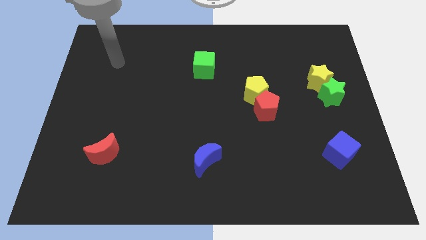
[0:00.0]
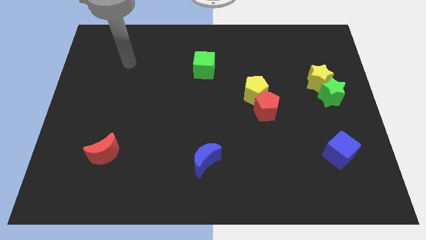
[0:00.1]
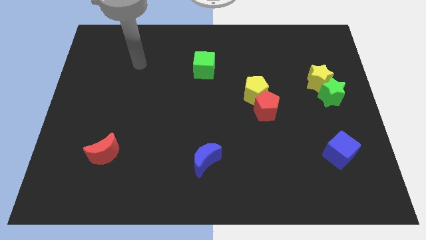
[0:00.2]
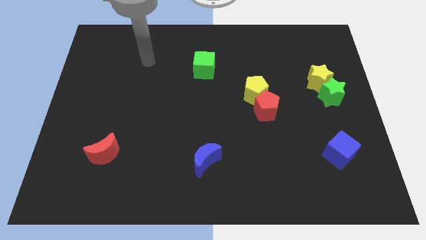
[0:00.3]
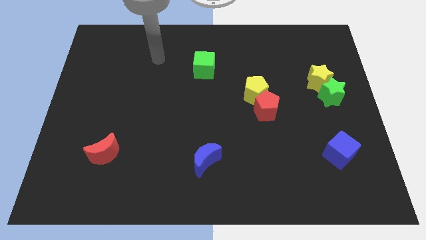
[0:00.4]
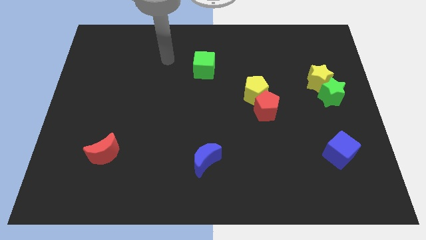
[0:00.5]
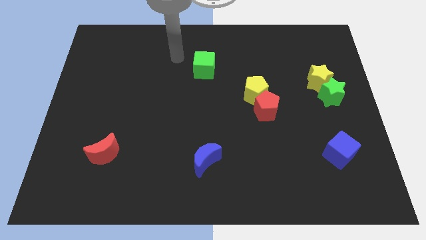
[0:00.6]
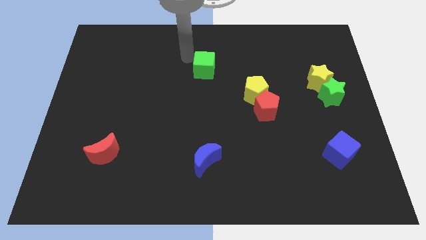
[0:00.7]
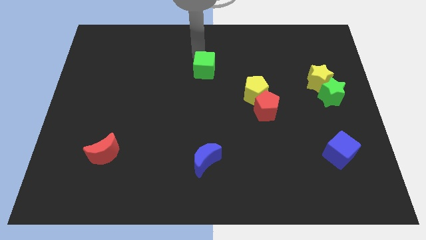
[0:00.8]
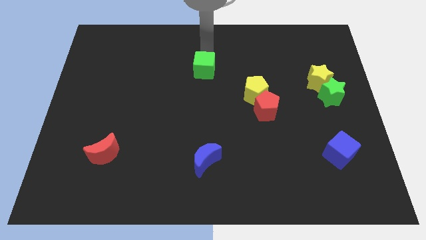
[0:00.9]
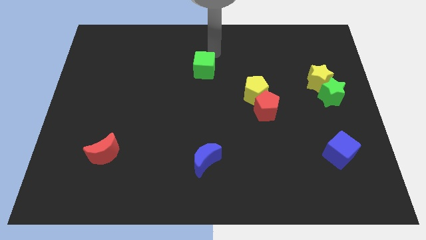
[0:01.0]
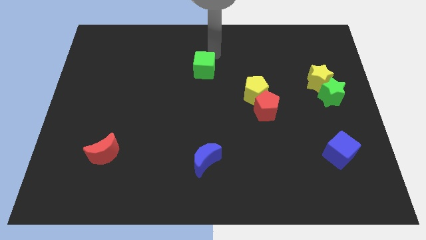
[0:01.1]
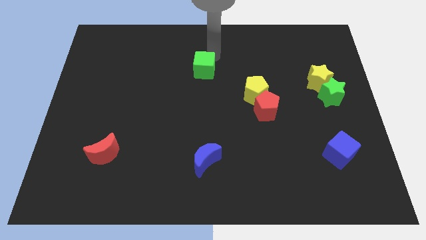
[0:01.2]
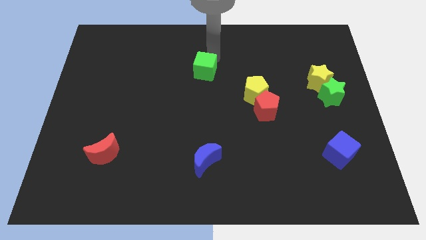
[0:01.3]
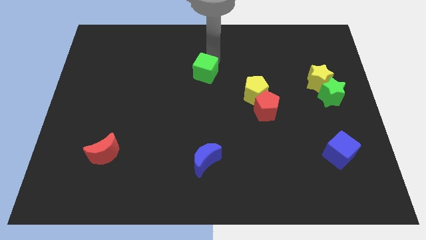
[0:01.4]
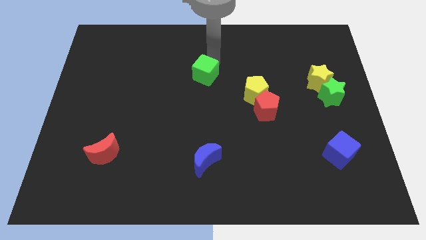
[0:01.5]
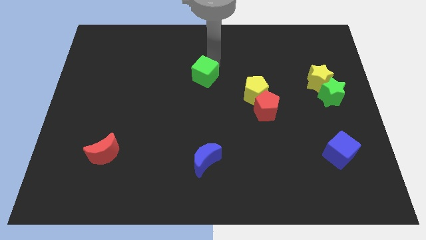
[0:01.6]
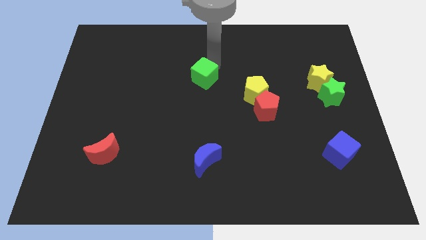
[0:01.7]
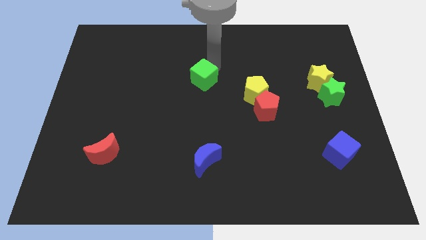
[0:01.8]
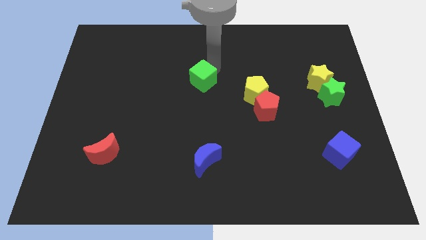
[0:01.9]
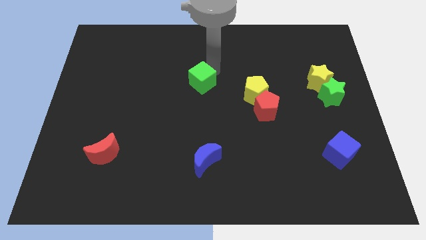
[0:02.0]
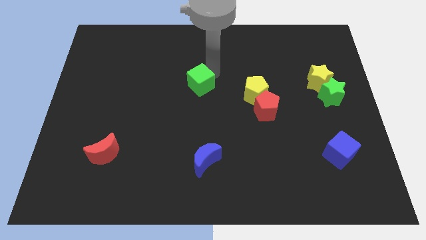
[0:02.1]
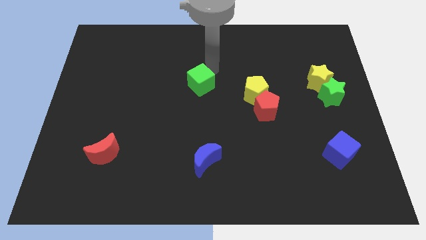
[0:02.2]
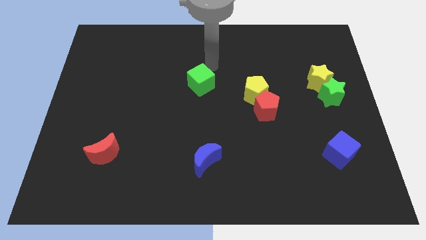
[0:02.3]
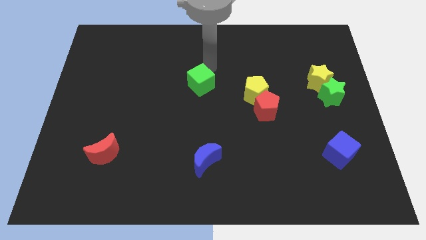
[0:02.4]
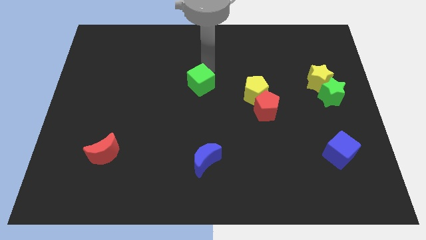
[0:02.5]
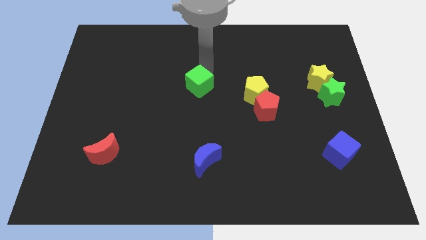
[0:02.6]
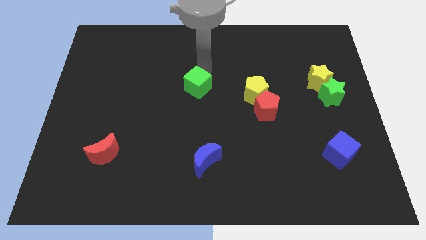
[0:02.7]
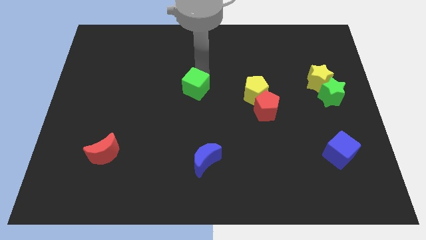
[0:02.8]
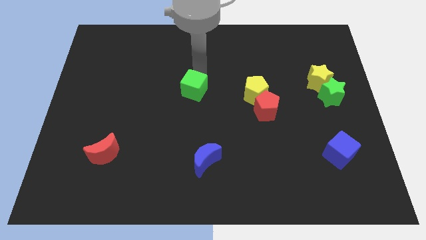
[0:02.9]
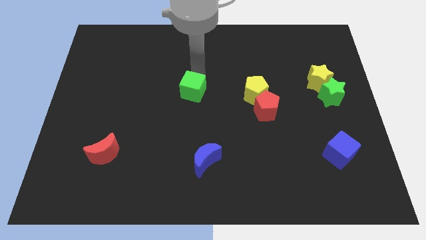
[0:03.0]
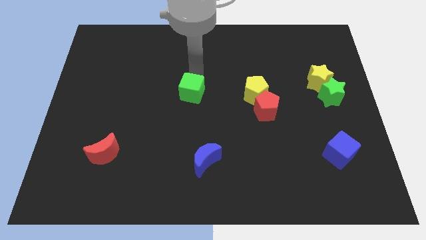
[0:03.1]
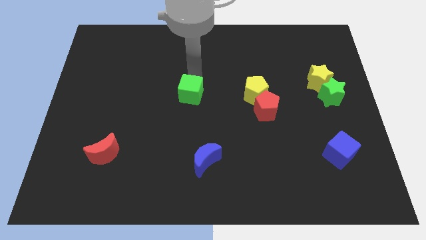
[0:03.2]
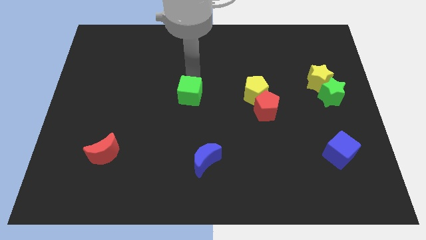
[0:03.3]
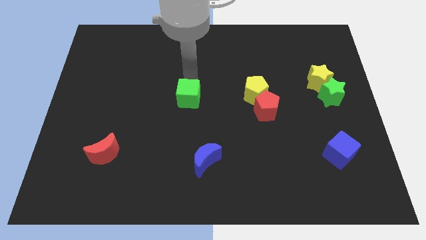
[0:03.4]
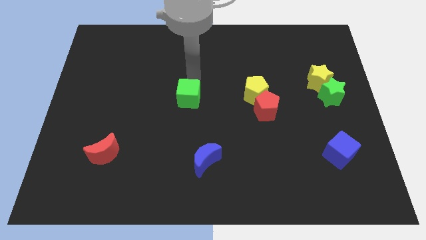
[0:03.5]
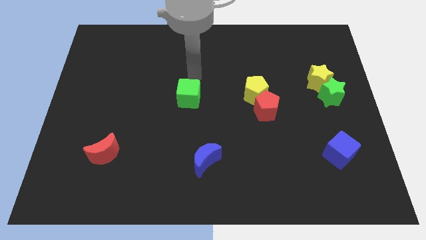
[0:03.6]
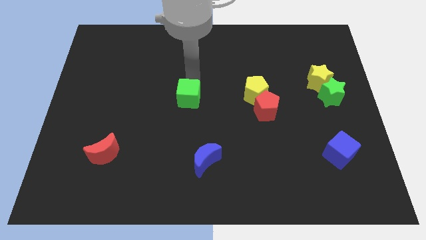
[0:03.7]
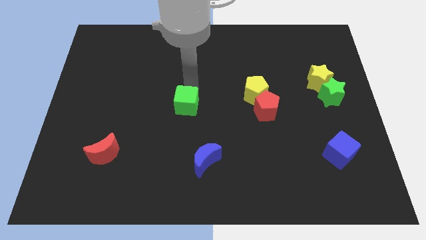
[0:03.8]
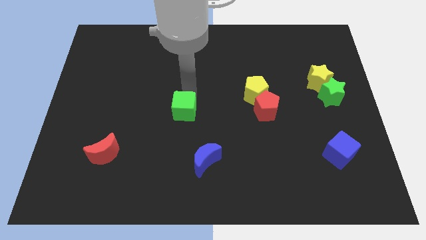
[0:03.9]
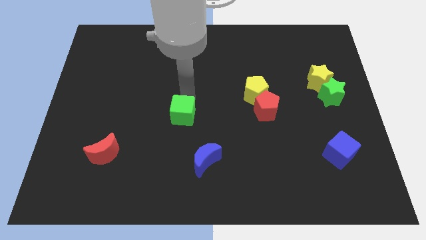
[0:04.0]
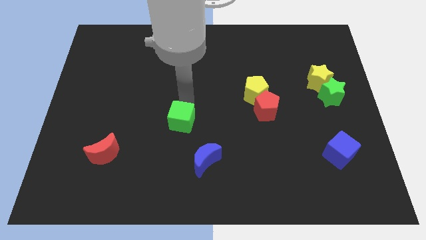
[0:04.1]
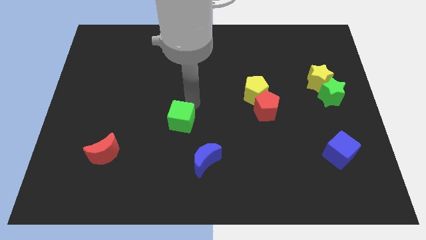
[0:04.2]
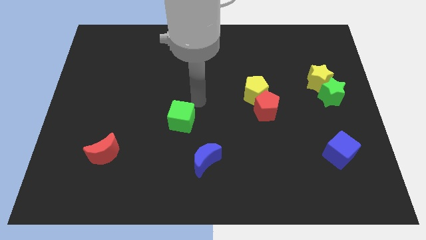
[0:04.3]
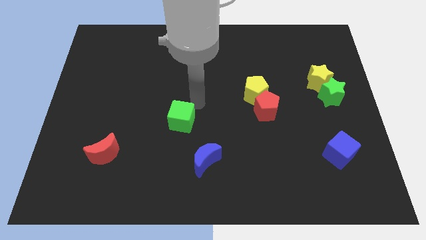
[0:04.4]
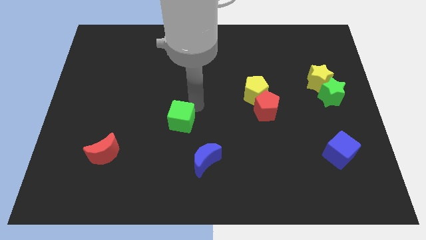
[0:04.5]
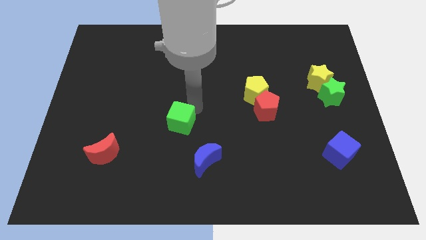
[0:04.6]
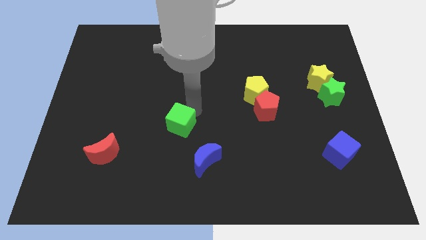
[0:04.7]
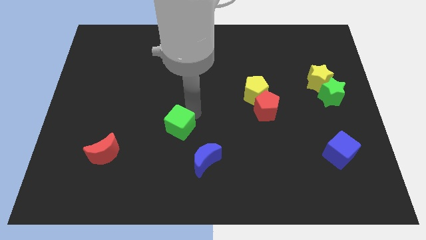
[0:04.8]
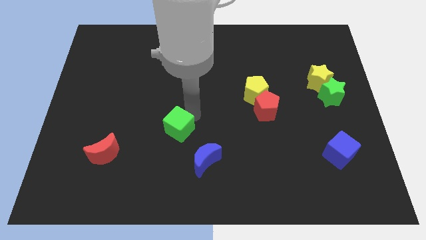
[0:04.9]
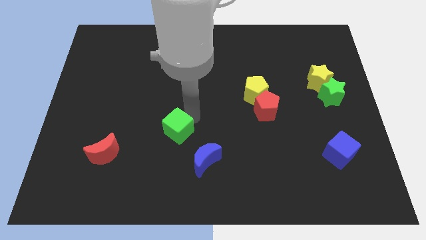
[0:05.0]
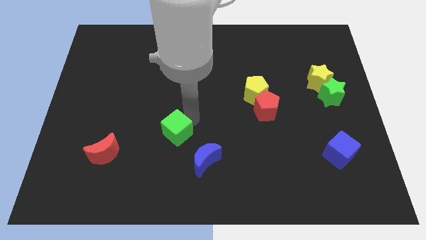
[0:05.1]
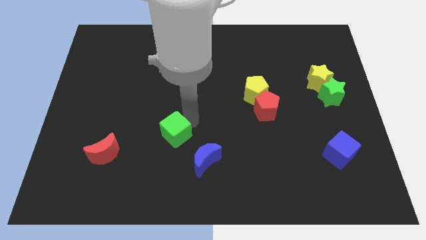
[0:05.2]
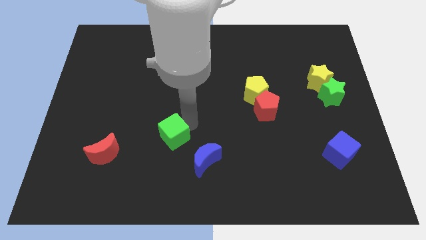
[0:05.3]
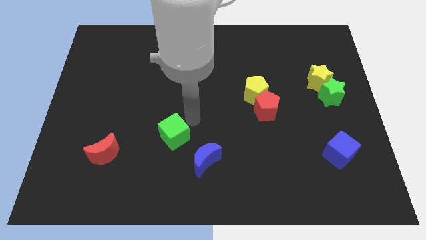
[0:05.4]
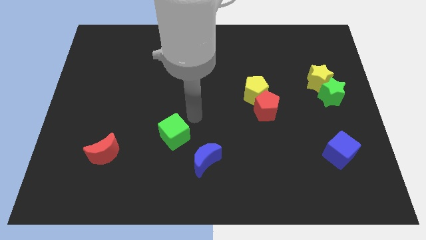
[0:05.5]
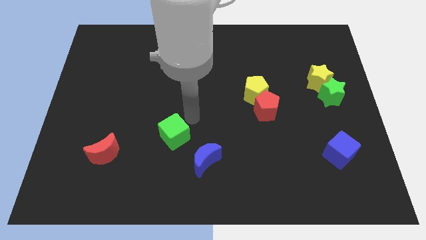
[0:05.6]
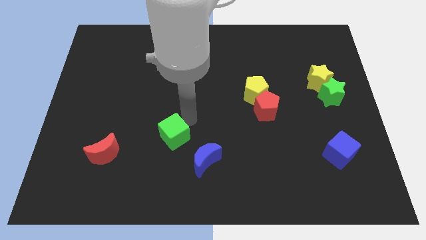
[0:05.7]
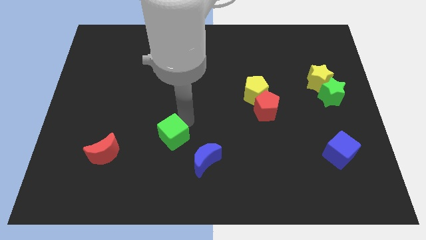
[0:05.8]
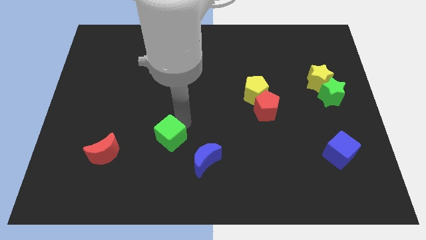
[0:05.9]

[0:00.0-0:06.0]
push the green cube to the right of the red moon
